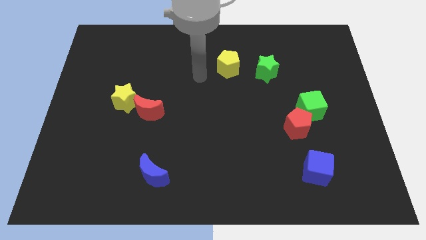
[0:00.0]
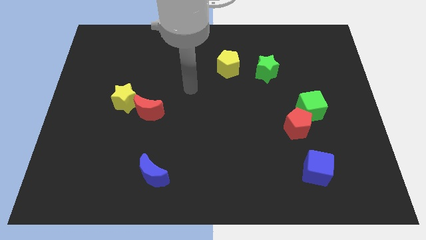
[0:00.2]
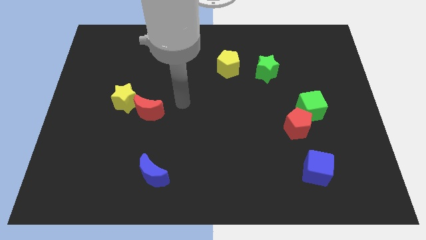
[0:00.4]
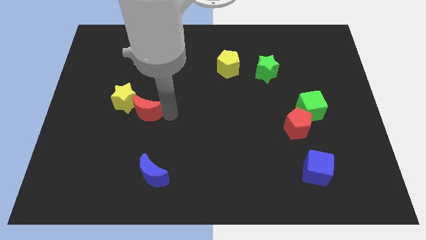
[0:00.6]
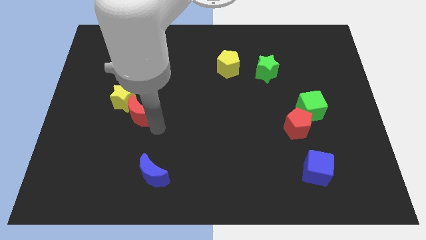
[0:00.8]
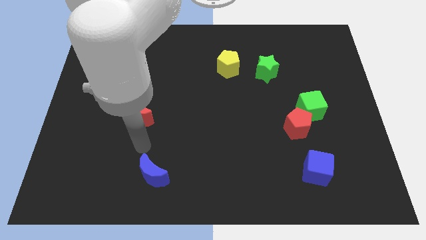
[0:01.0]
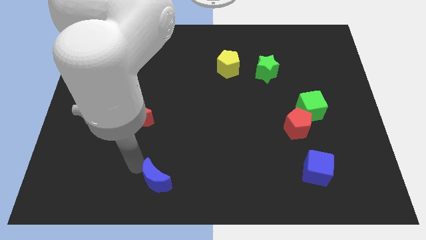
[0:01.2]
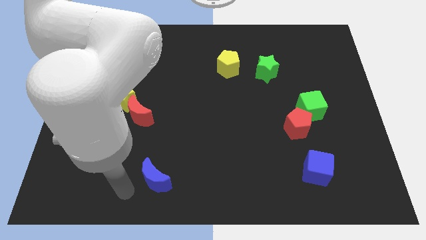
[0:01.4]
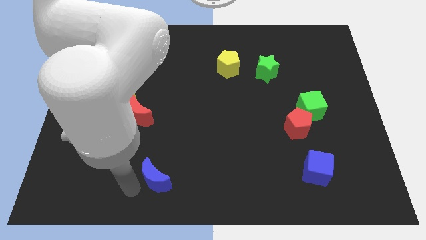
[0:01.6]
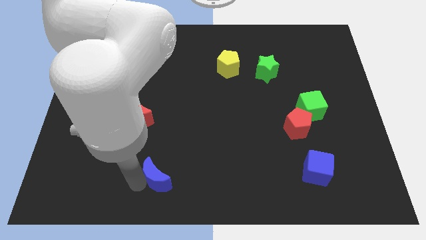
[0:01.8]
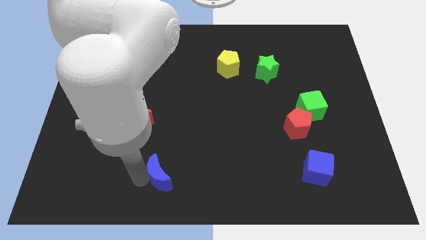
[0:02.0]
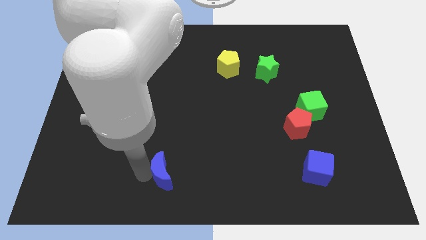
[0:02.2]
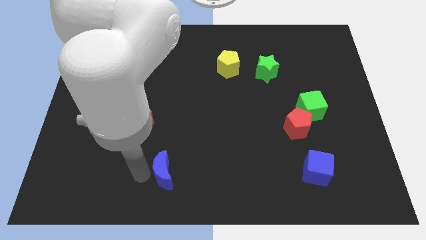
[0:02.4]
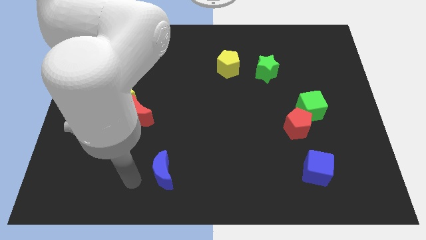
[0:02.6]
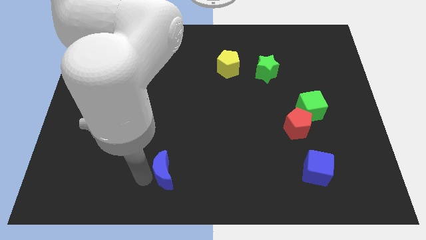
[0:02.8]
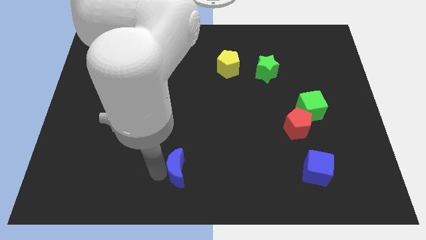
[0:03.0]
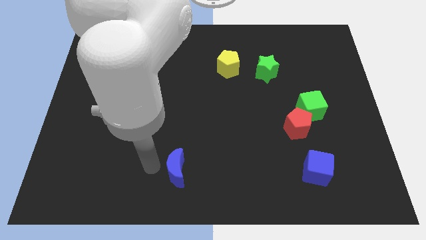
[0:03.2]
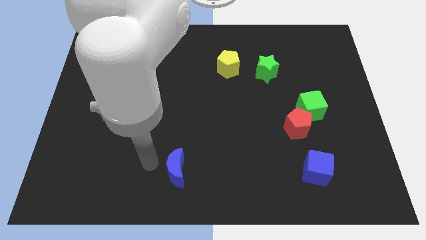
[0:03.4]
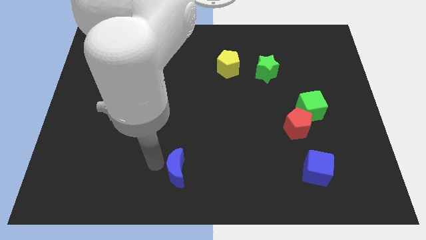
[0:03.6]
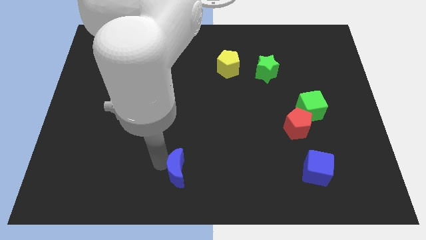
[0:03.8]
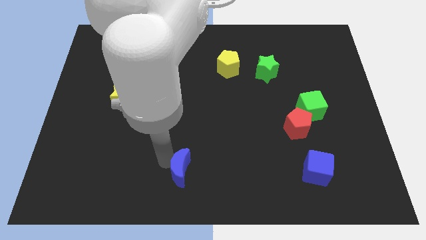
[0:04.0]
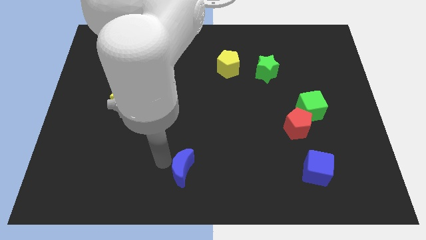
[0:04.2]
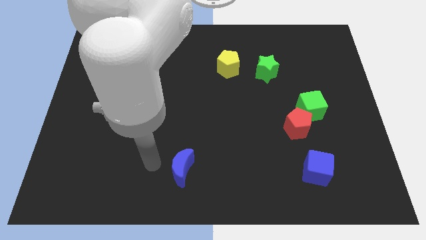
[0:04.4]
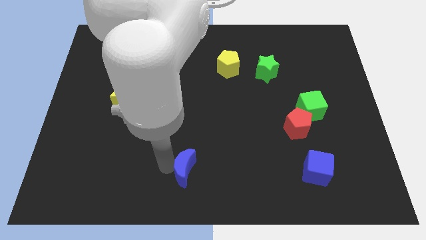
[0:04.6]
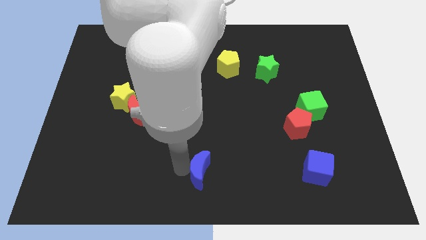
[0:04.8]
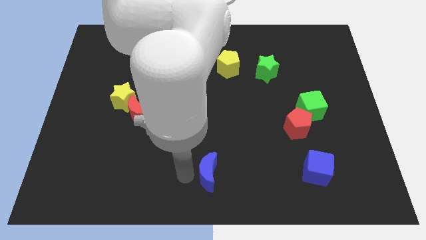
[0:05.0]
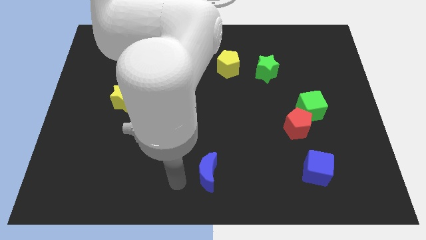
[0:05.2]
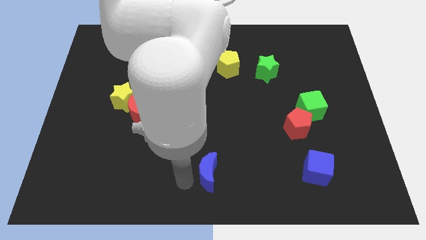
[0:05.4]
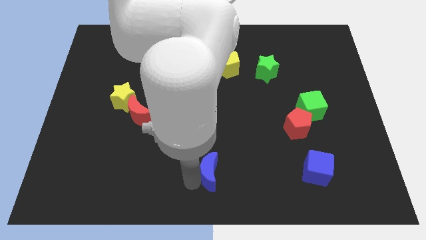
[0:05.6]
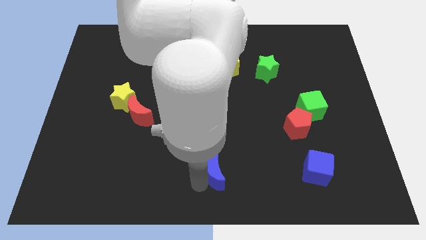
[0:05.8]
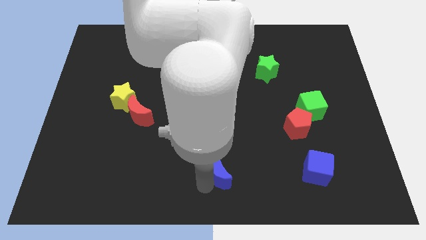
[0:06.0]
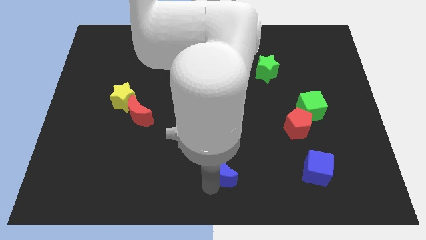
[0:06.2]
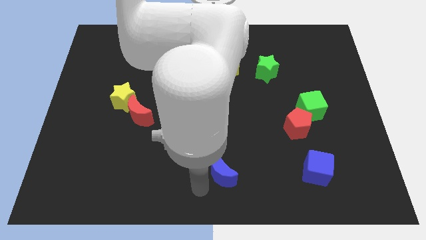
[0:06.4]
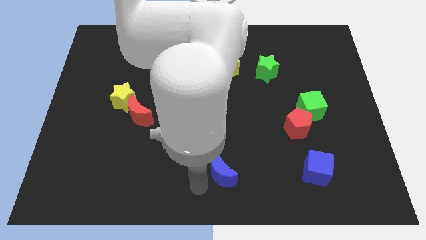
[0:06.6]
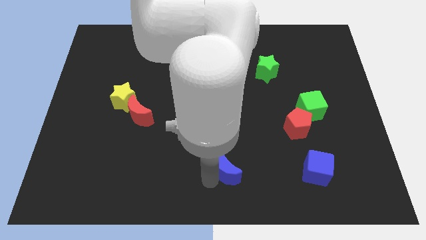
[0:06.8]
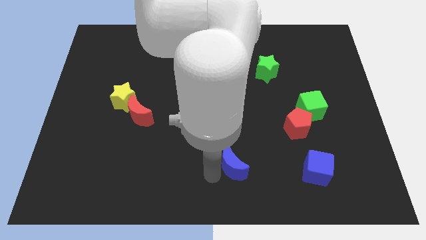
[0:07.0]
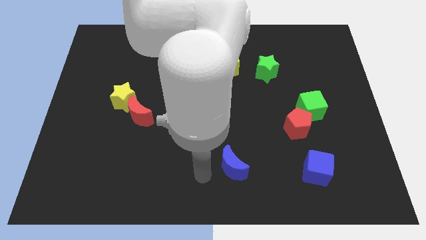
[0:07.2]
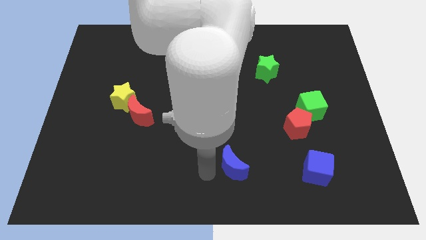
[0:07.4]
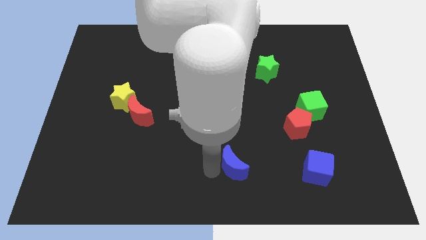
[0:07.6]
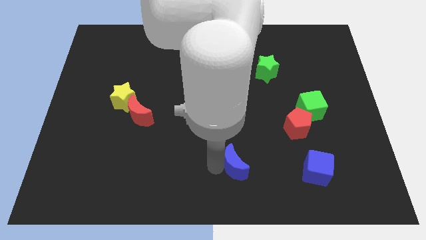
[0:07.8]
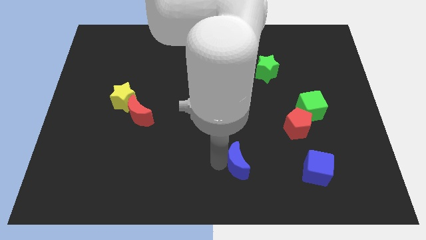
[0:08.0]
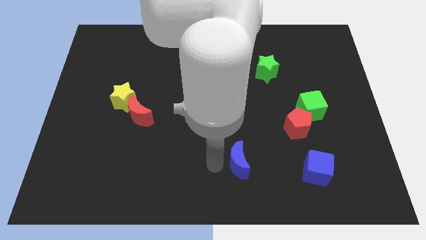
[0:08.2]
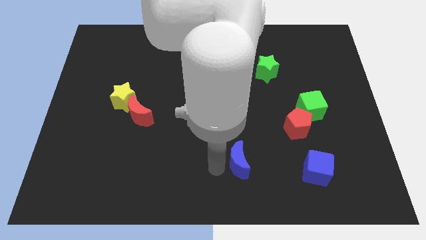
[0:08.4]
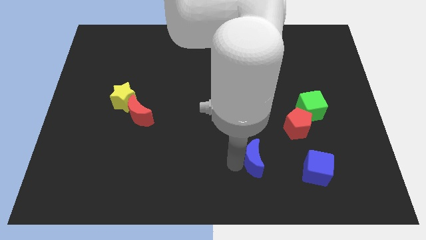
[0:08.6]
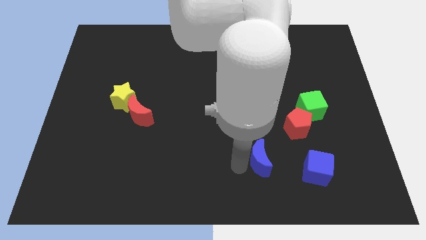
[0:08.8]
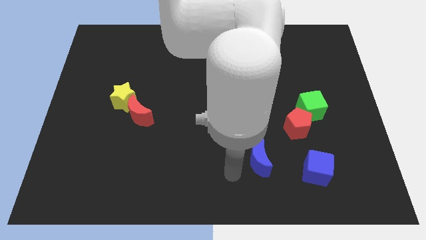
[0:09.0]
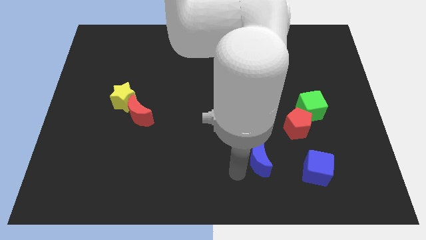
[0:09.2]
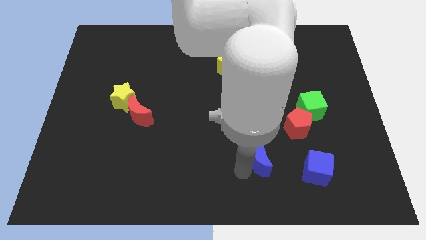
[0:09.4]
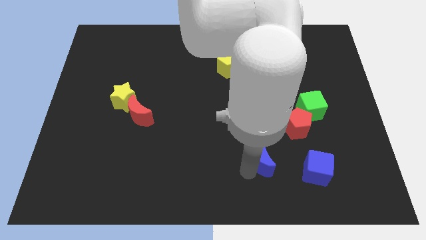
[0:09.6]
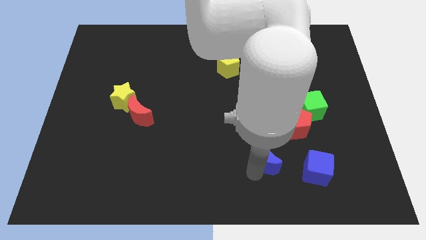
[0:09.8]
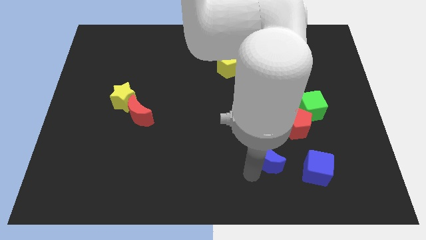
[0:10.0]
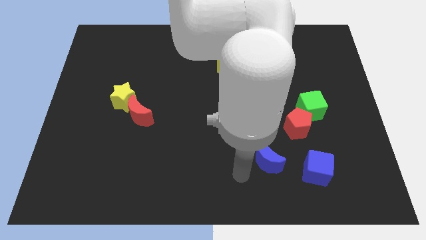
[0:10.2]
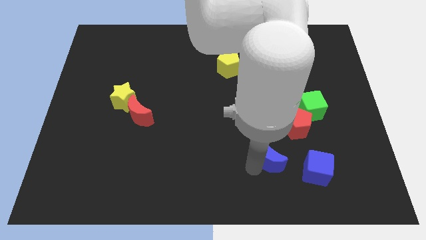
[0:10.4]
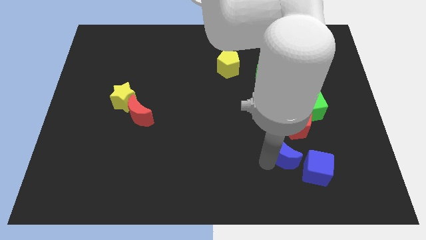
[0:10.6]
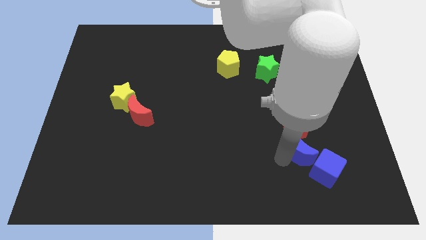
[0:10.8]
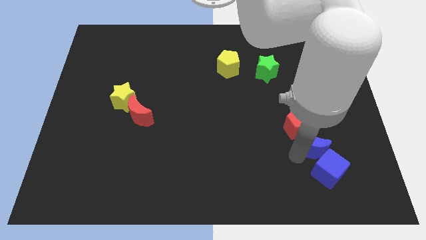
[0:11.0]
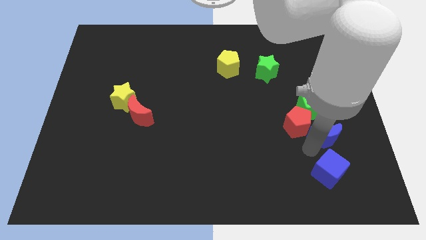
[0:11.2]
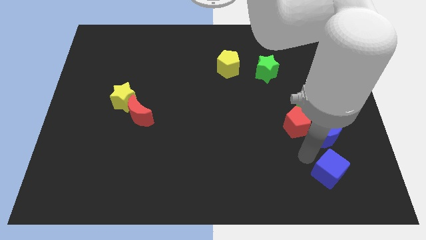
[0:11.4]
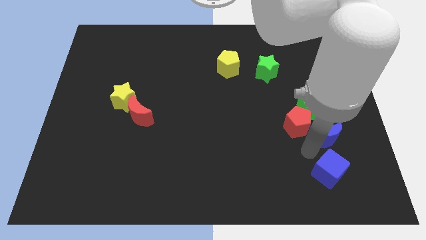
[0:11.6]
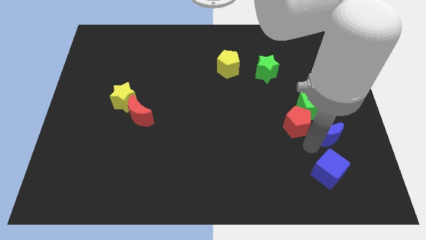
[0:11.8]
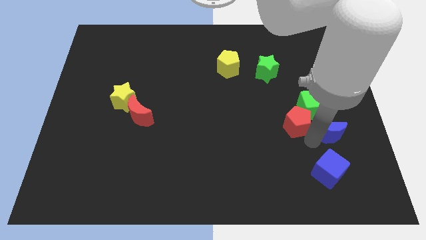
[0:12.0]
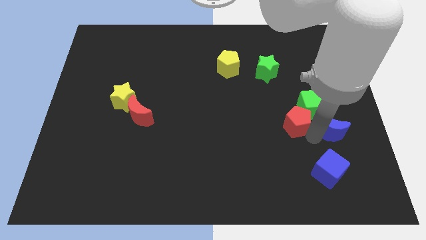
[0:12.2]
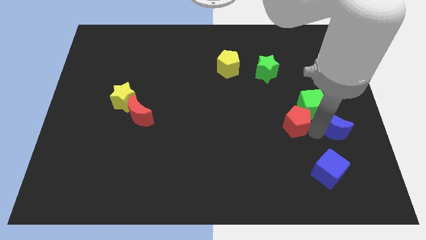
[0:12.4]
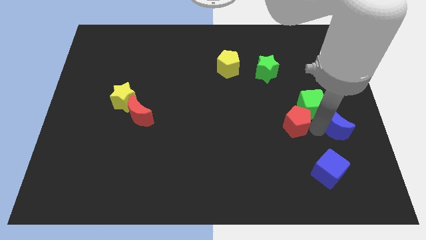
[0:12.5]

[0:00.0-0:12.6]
move the blue moon to the right side of the board

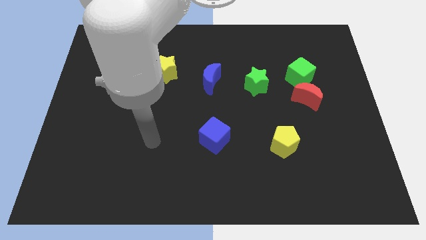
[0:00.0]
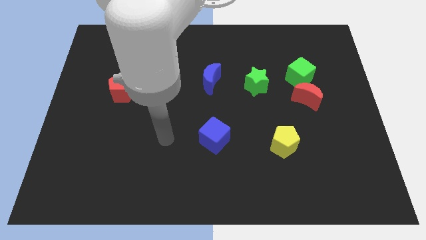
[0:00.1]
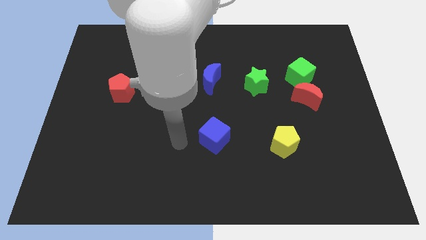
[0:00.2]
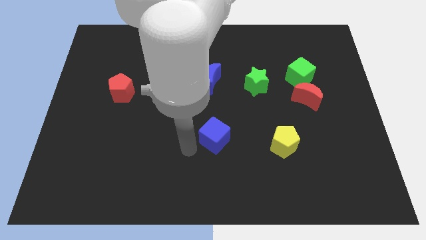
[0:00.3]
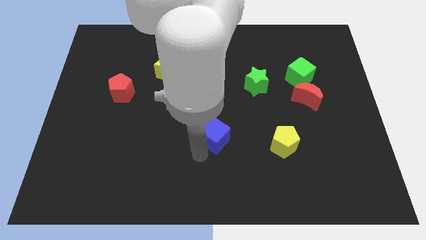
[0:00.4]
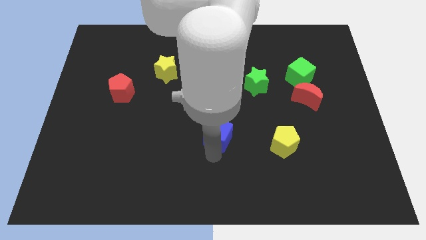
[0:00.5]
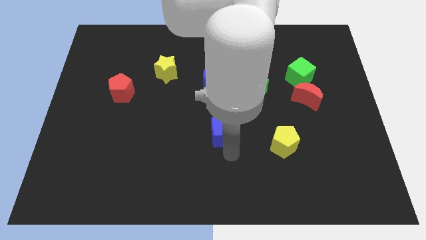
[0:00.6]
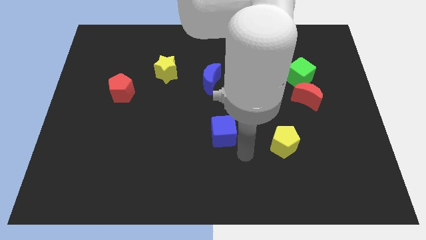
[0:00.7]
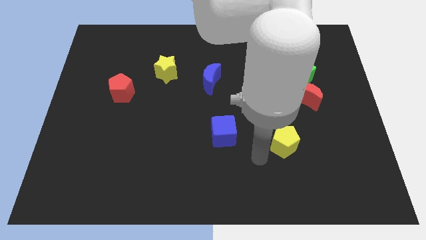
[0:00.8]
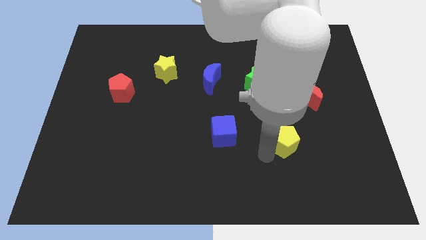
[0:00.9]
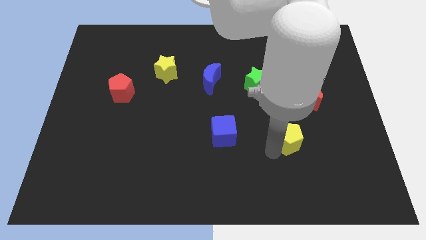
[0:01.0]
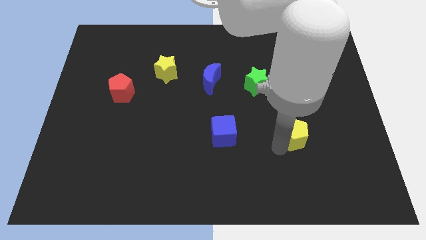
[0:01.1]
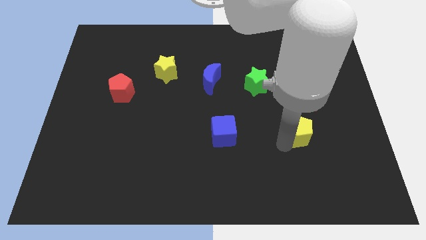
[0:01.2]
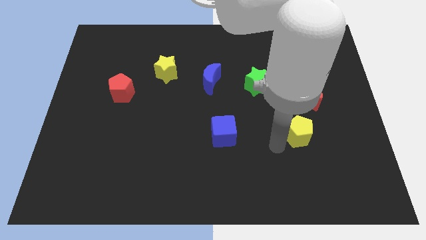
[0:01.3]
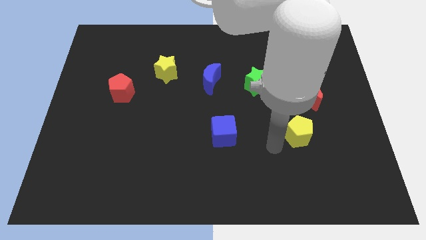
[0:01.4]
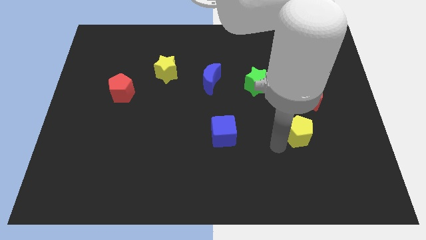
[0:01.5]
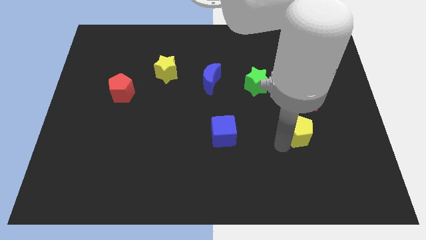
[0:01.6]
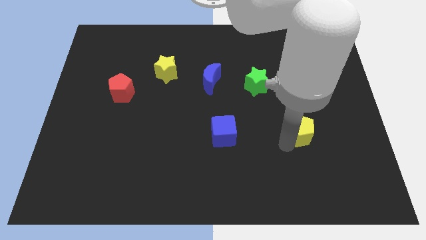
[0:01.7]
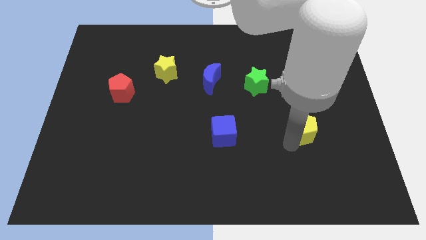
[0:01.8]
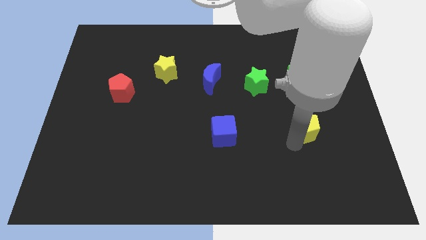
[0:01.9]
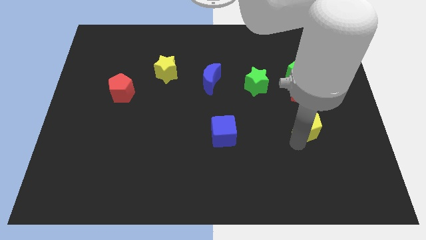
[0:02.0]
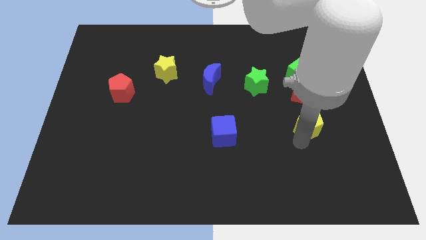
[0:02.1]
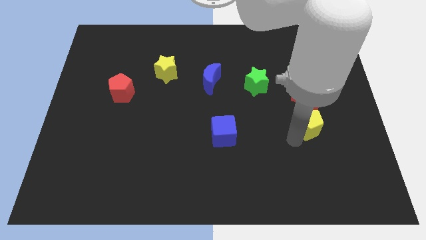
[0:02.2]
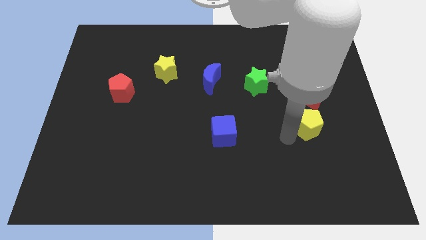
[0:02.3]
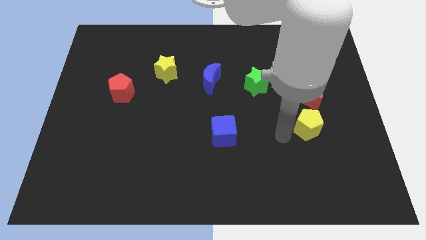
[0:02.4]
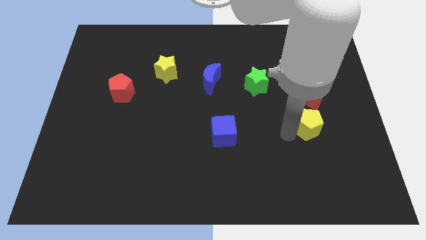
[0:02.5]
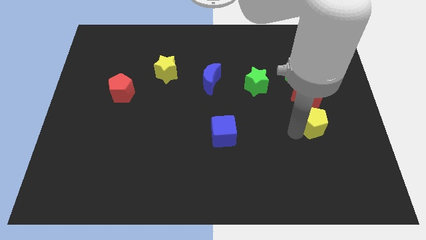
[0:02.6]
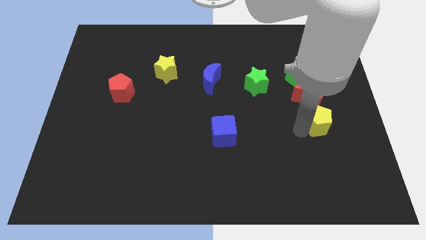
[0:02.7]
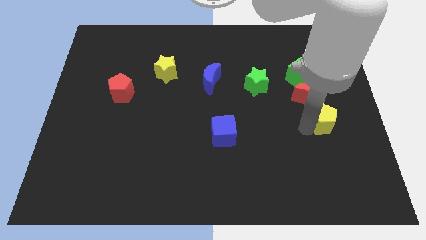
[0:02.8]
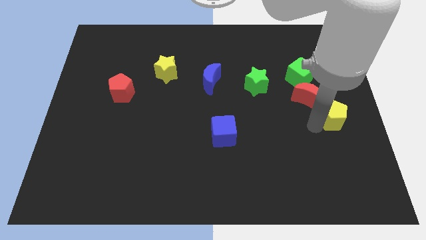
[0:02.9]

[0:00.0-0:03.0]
slide the yellow pentagon to the center right
